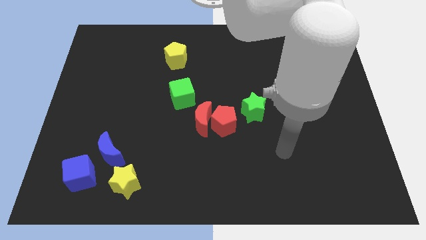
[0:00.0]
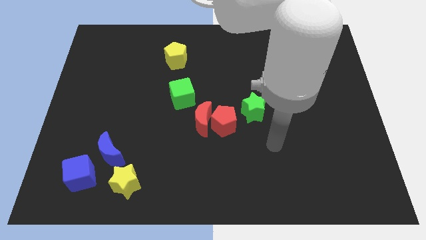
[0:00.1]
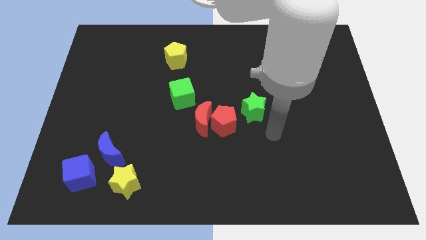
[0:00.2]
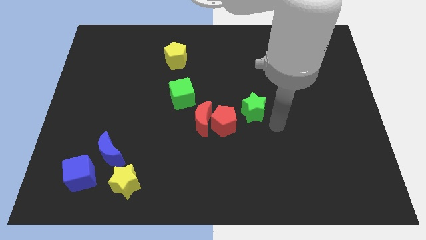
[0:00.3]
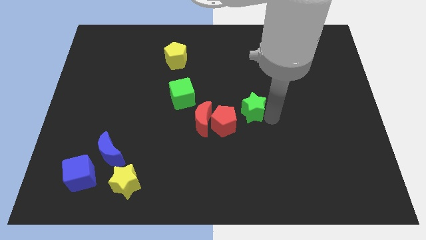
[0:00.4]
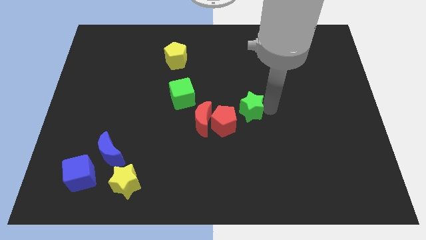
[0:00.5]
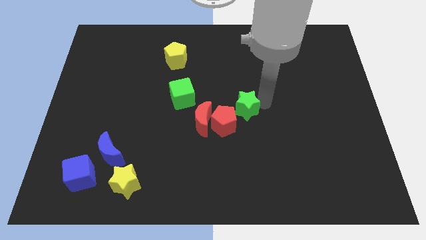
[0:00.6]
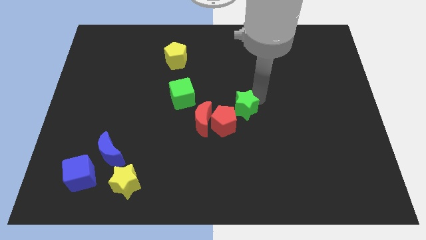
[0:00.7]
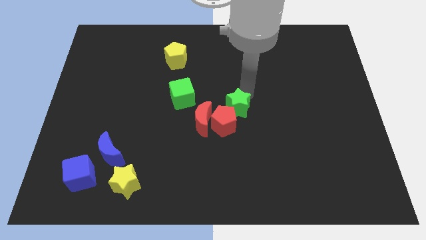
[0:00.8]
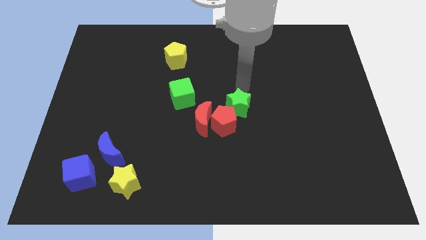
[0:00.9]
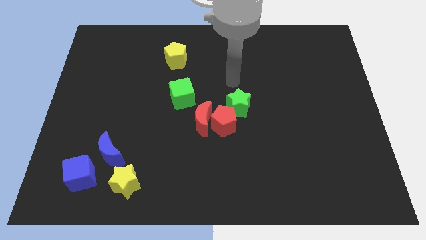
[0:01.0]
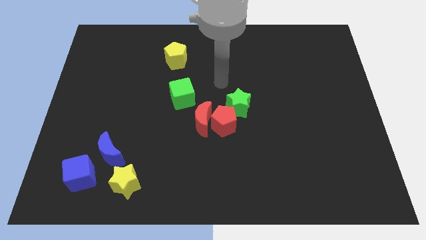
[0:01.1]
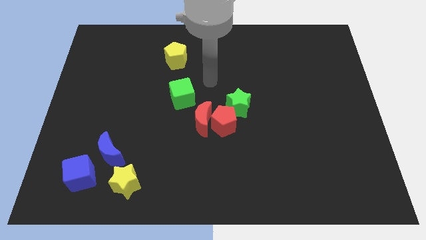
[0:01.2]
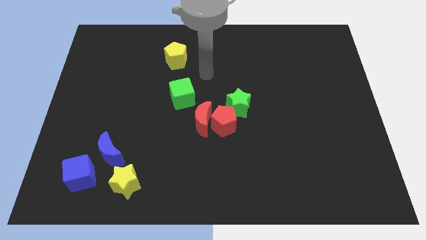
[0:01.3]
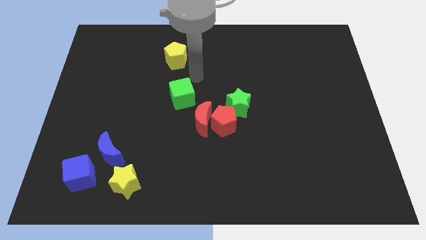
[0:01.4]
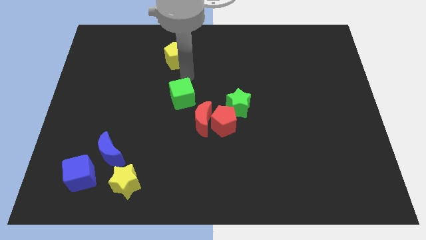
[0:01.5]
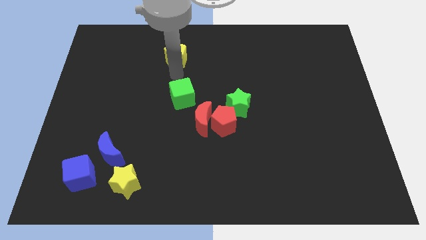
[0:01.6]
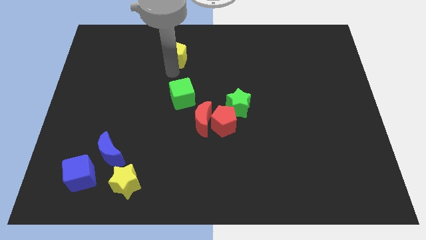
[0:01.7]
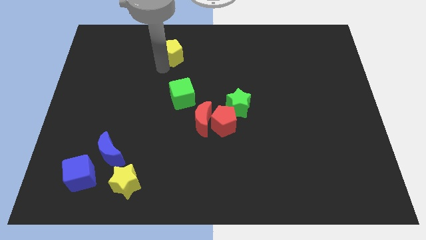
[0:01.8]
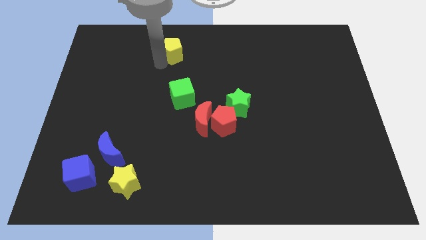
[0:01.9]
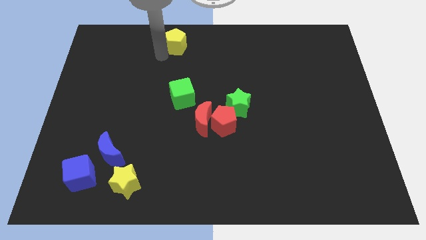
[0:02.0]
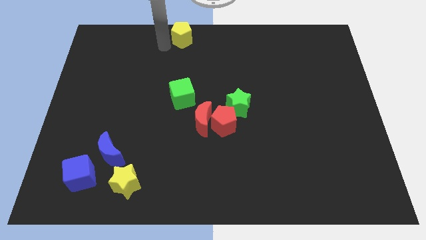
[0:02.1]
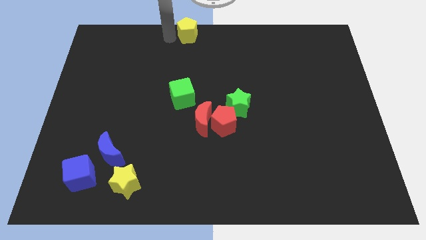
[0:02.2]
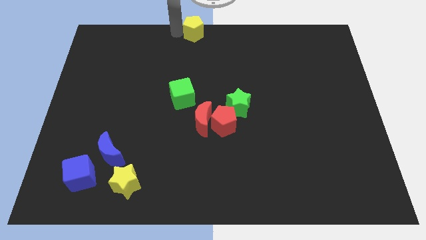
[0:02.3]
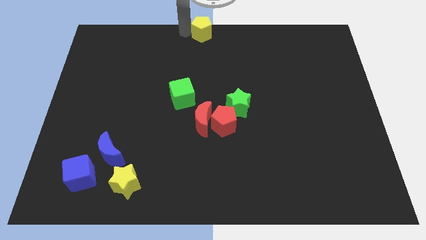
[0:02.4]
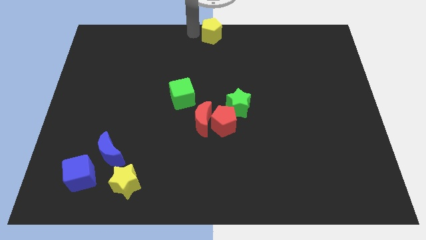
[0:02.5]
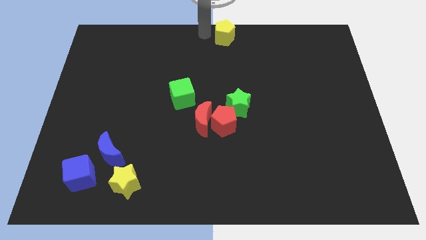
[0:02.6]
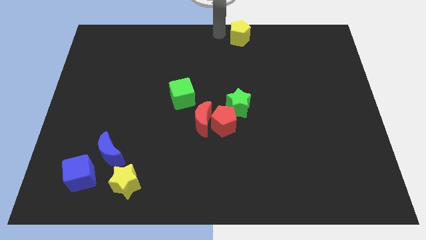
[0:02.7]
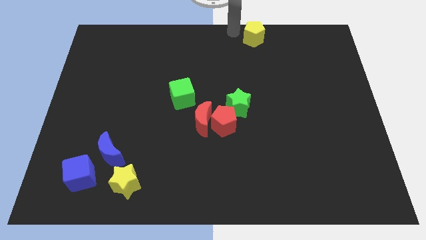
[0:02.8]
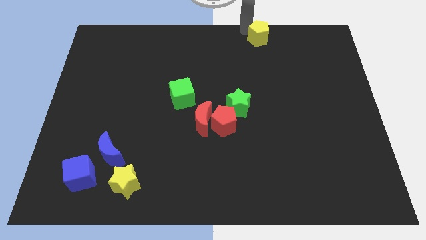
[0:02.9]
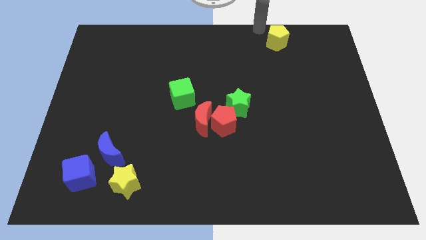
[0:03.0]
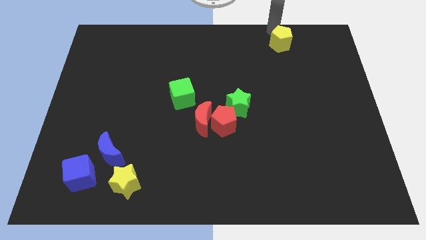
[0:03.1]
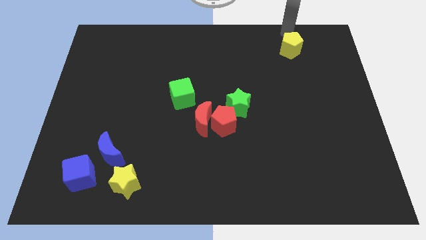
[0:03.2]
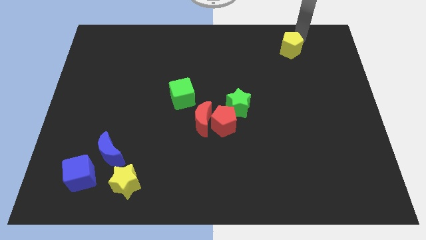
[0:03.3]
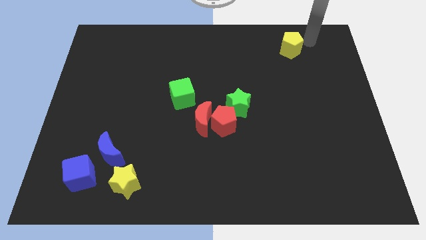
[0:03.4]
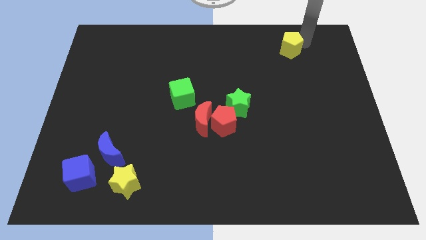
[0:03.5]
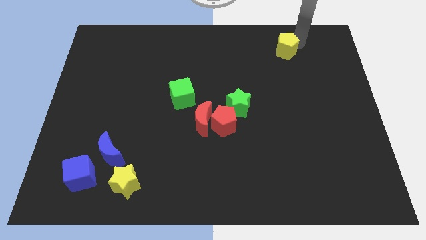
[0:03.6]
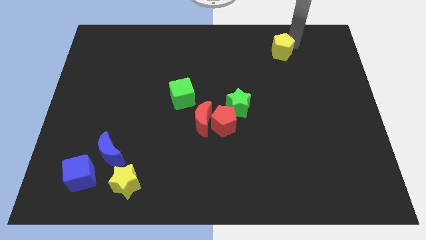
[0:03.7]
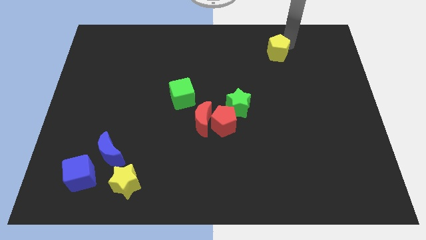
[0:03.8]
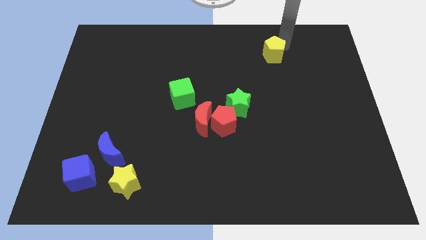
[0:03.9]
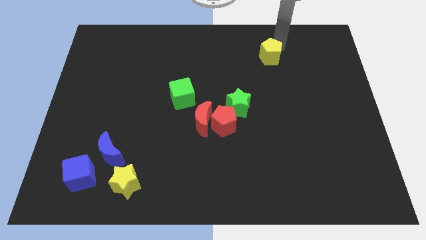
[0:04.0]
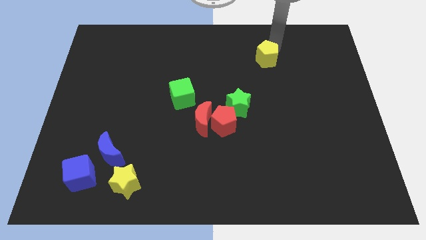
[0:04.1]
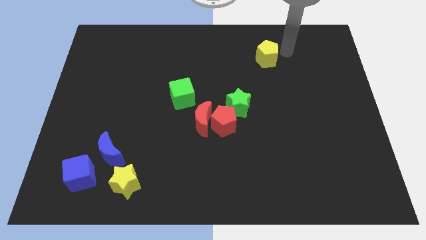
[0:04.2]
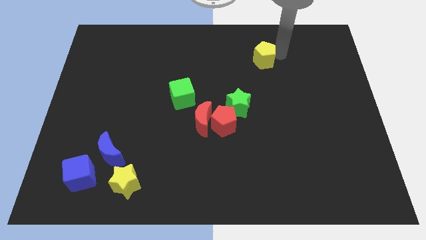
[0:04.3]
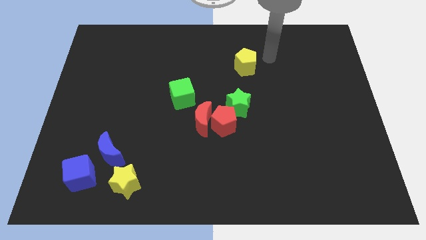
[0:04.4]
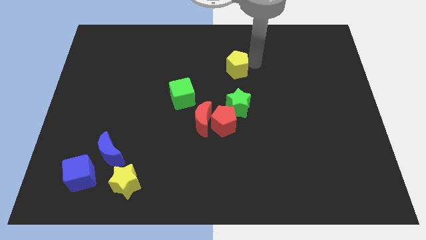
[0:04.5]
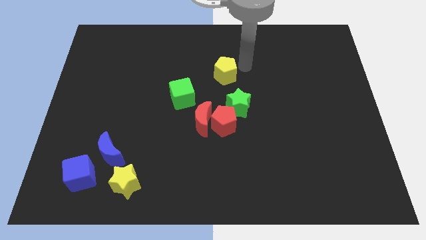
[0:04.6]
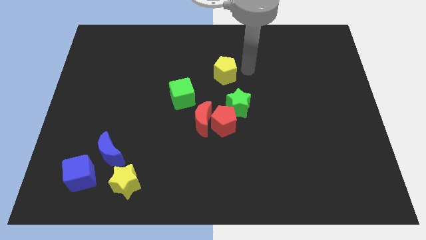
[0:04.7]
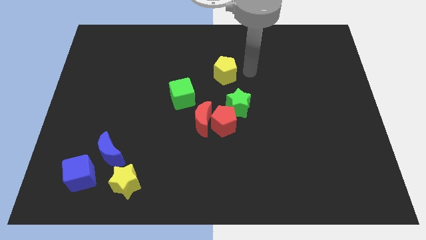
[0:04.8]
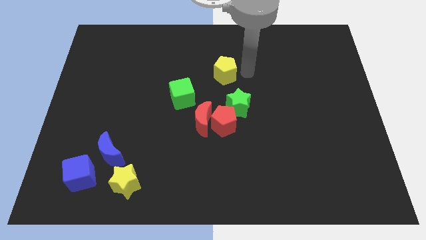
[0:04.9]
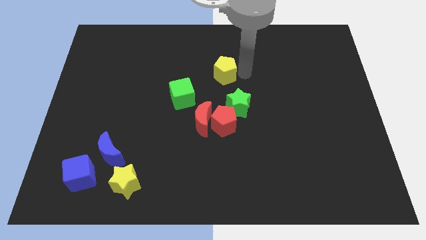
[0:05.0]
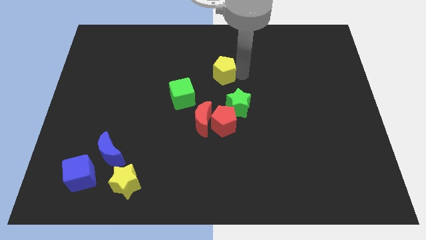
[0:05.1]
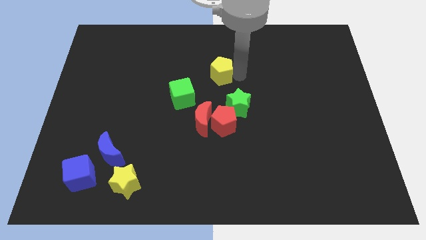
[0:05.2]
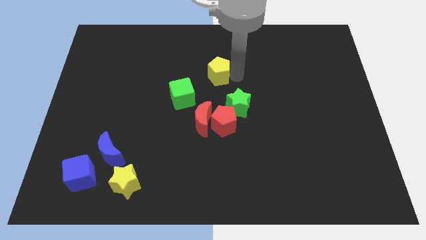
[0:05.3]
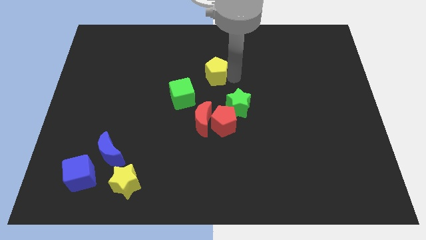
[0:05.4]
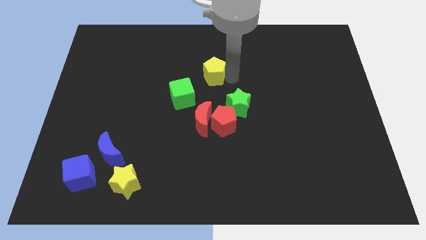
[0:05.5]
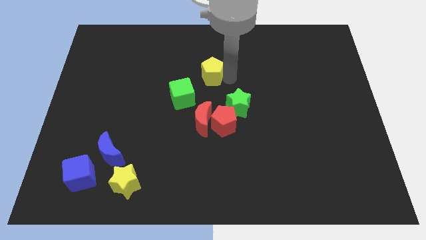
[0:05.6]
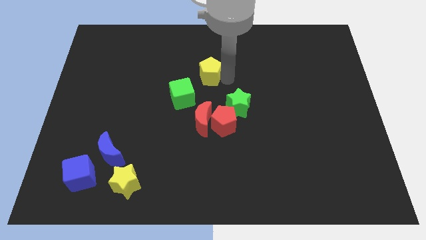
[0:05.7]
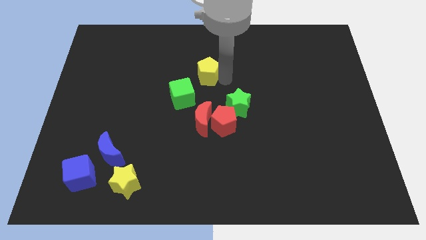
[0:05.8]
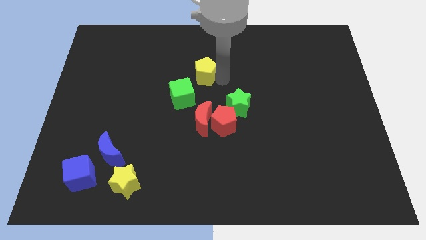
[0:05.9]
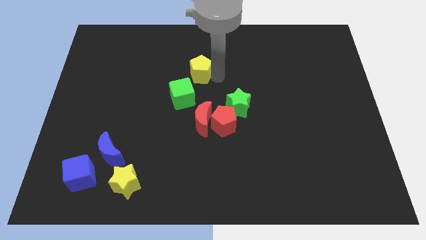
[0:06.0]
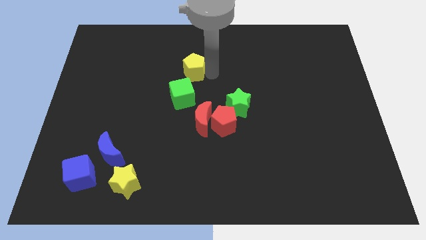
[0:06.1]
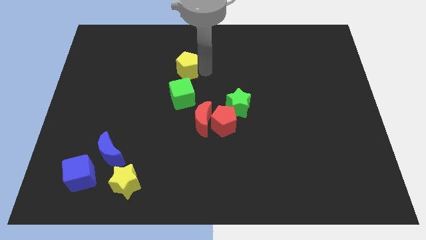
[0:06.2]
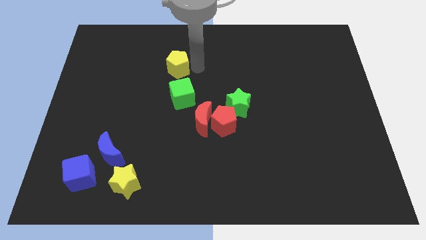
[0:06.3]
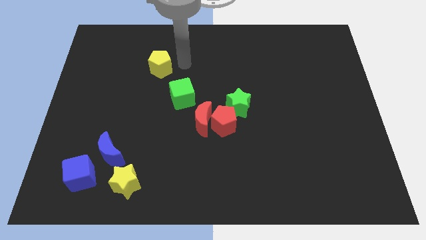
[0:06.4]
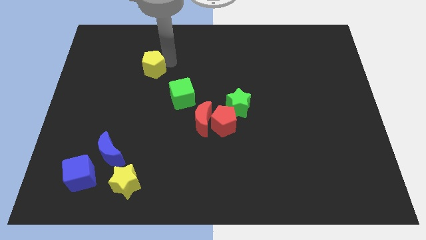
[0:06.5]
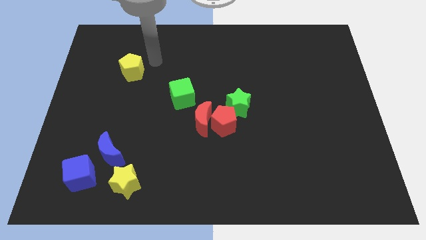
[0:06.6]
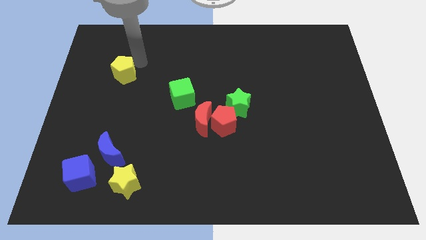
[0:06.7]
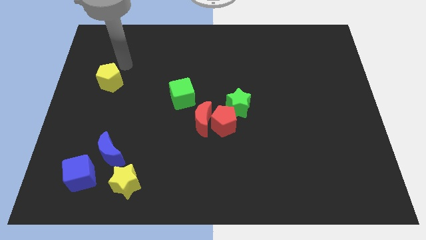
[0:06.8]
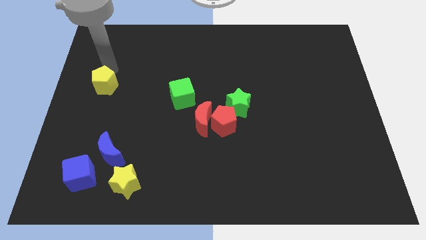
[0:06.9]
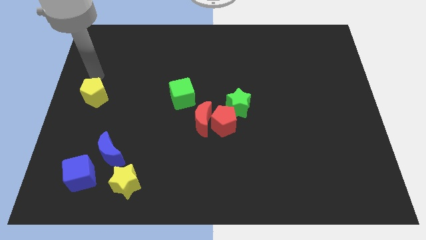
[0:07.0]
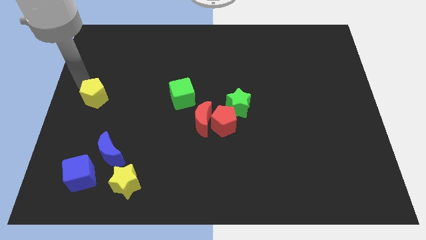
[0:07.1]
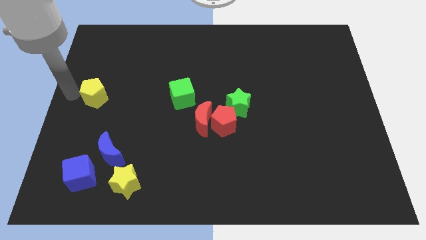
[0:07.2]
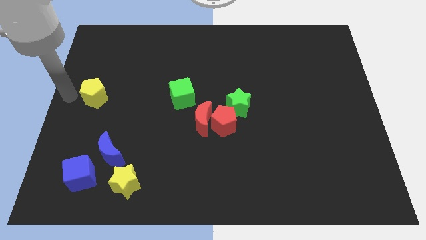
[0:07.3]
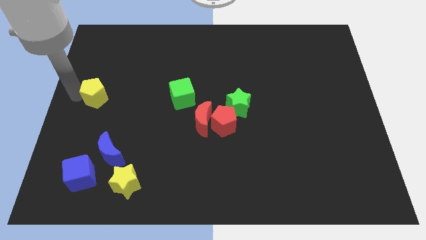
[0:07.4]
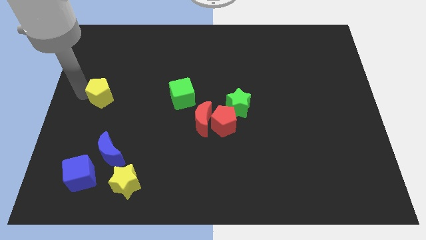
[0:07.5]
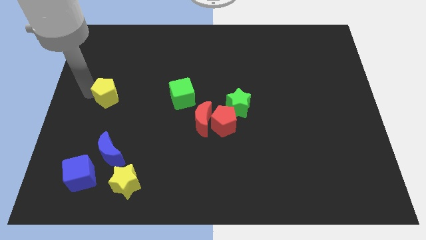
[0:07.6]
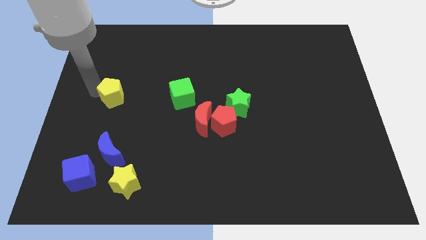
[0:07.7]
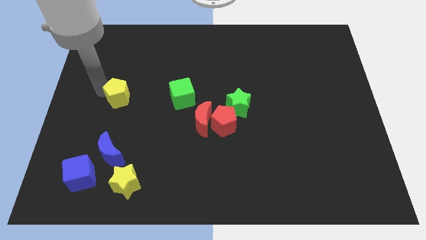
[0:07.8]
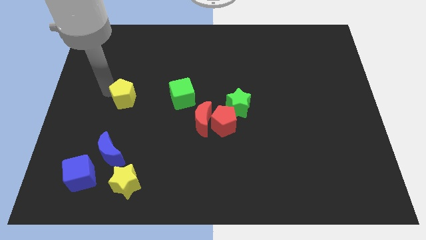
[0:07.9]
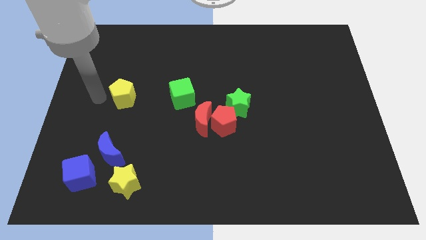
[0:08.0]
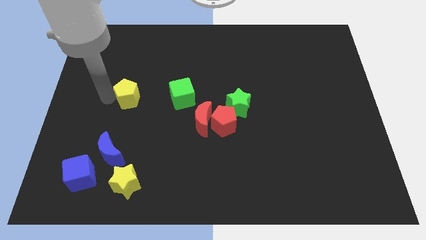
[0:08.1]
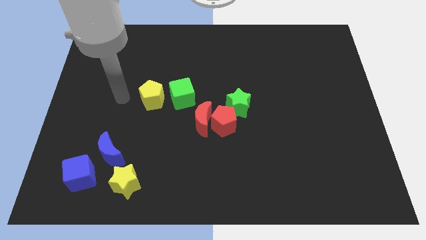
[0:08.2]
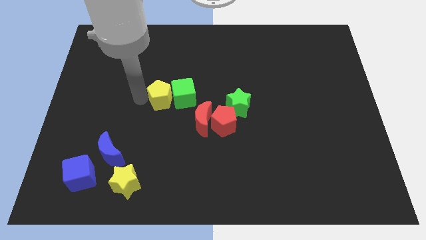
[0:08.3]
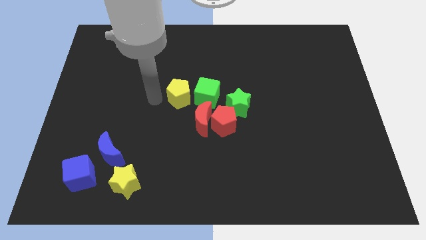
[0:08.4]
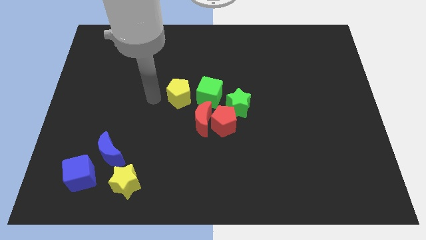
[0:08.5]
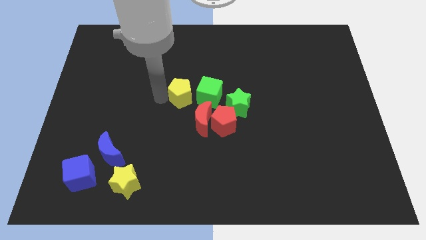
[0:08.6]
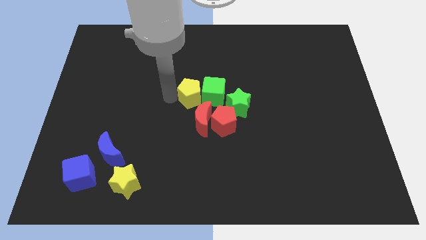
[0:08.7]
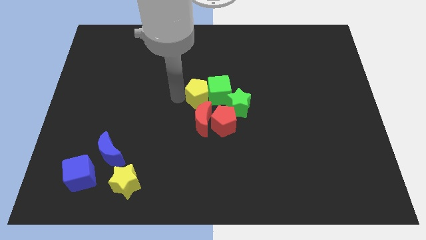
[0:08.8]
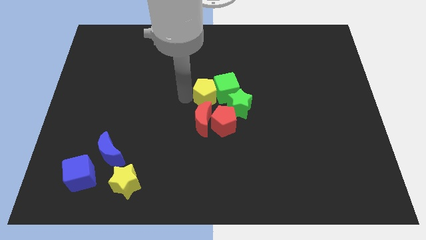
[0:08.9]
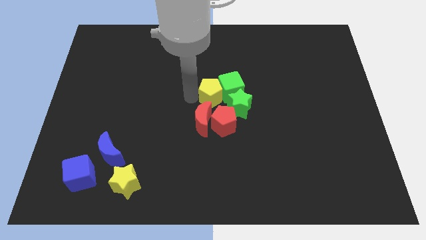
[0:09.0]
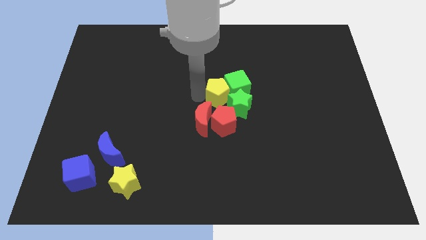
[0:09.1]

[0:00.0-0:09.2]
move the yellow pentagon to the green star
